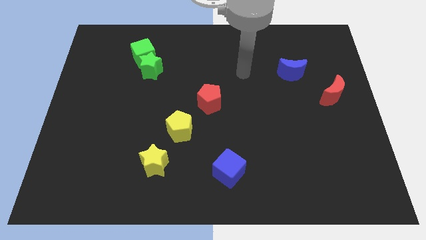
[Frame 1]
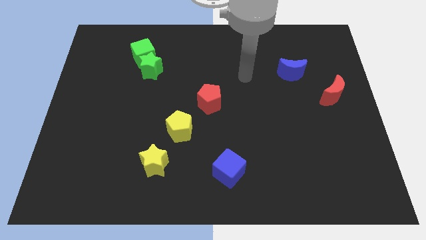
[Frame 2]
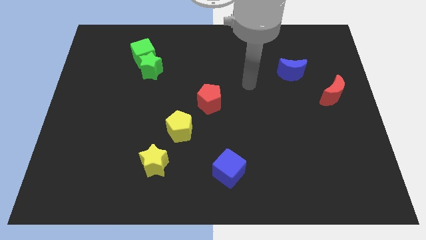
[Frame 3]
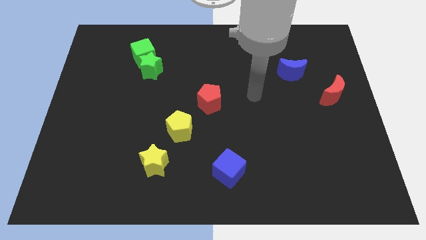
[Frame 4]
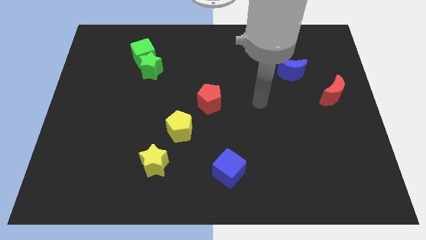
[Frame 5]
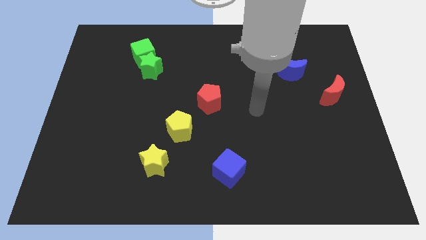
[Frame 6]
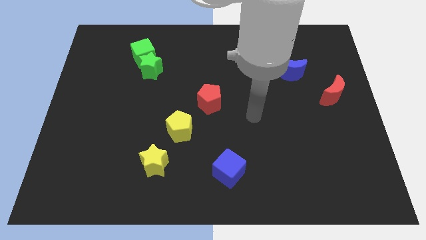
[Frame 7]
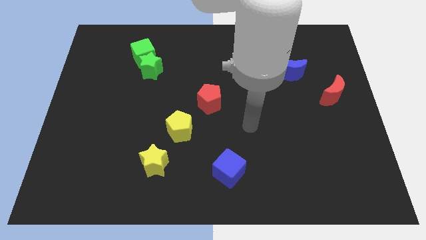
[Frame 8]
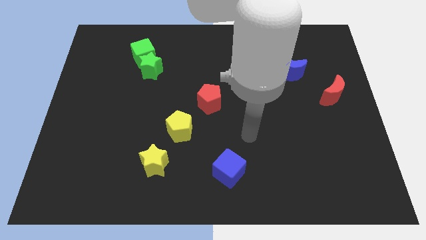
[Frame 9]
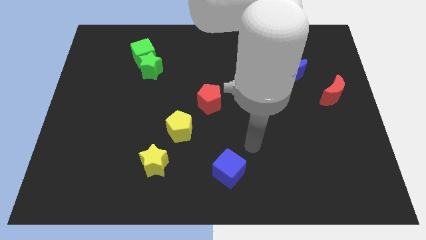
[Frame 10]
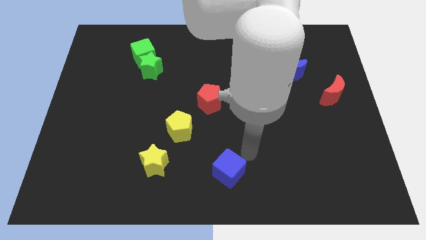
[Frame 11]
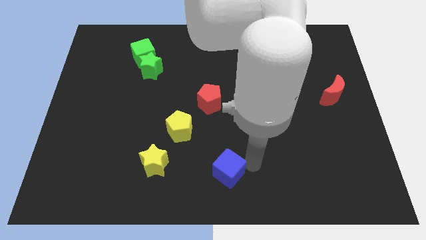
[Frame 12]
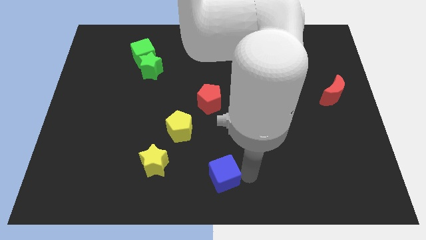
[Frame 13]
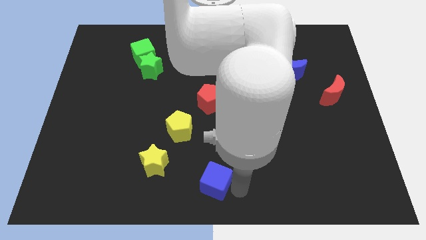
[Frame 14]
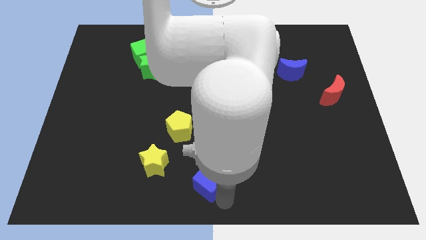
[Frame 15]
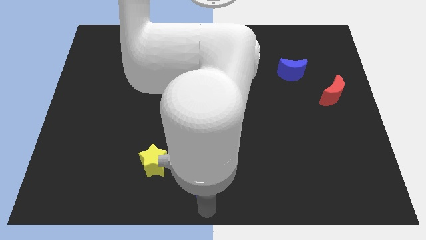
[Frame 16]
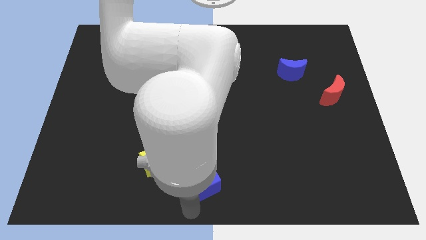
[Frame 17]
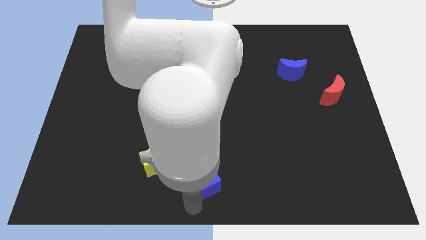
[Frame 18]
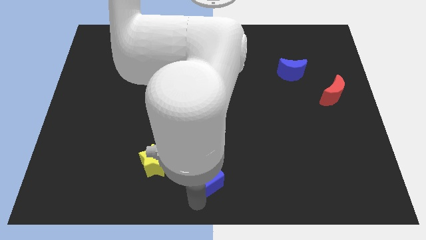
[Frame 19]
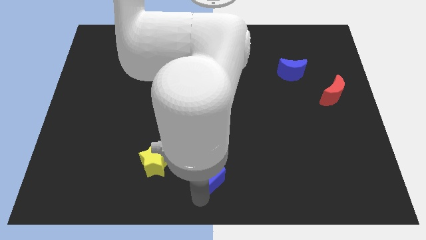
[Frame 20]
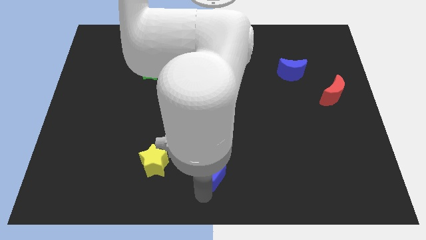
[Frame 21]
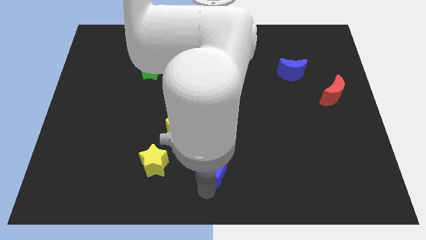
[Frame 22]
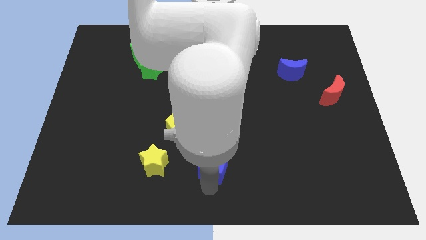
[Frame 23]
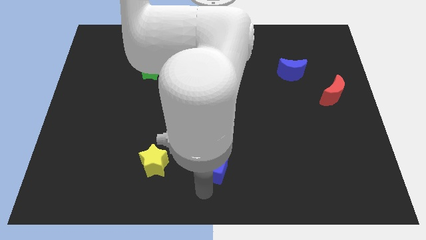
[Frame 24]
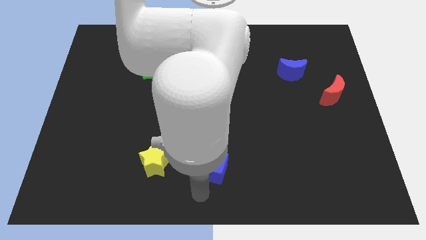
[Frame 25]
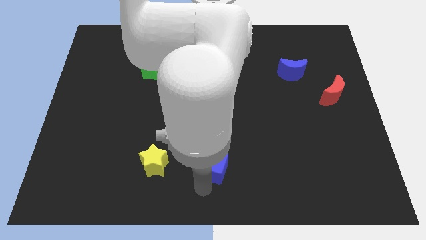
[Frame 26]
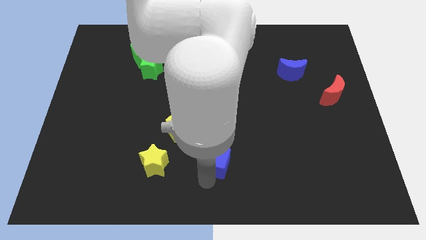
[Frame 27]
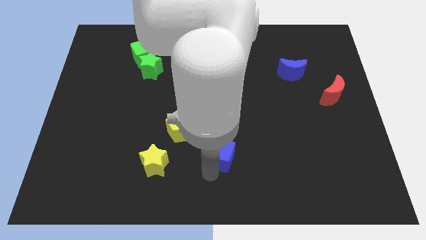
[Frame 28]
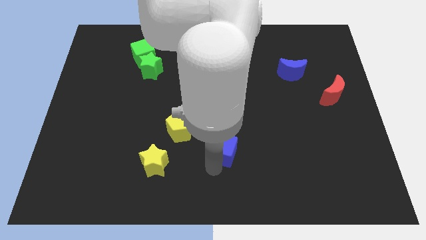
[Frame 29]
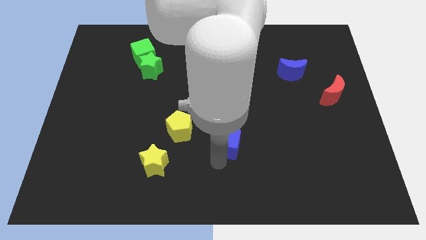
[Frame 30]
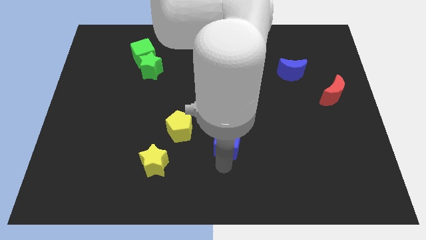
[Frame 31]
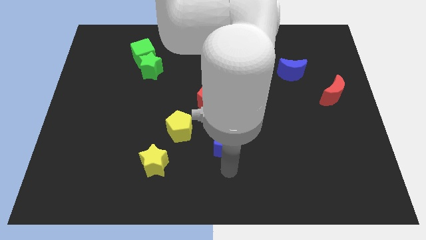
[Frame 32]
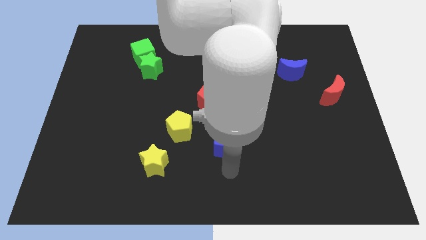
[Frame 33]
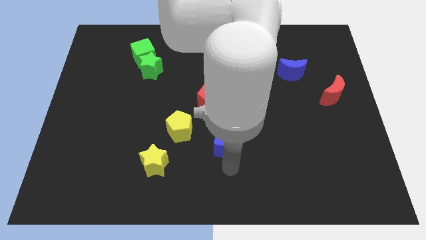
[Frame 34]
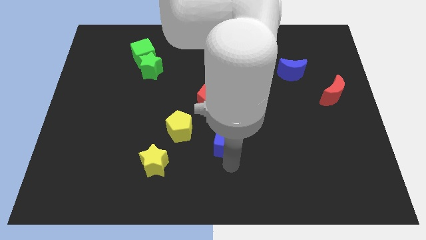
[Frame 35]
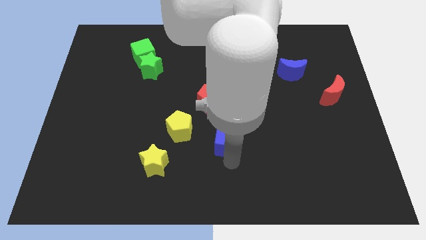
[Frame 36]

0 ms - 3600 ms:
push the blue cube slightly upwards

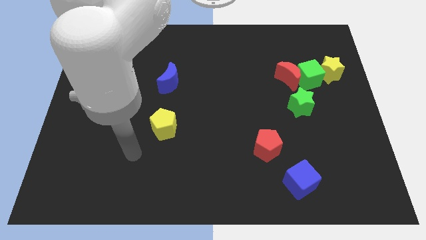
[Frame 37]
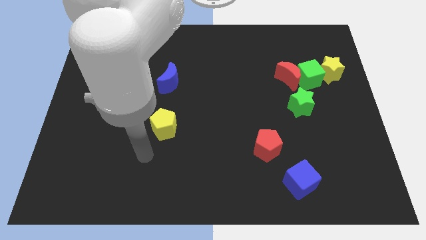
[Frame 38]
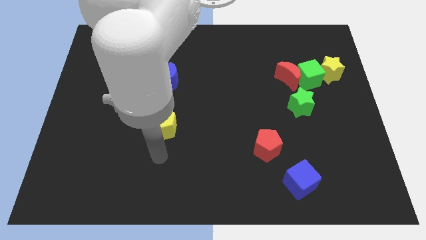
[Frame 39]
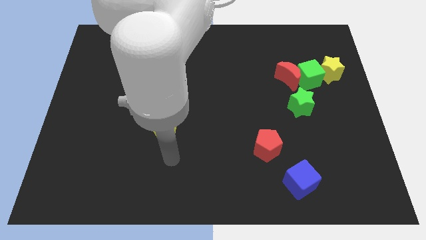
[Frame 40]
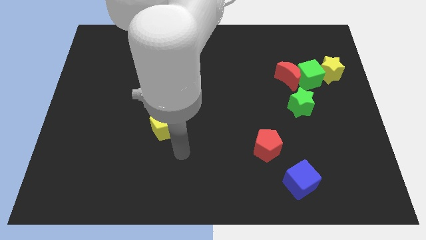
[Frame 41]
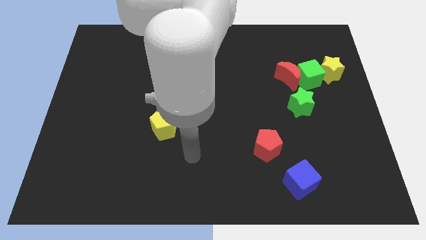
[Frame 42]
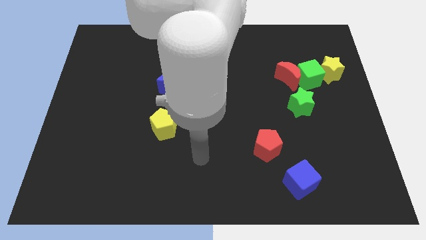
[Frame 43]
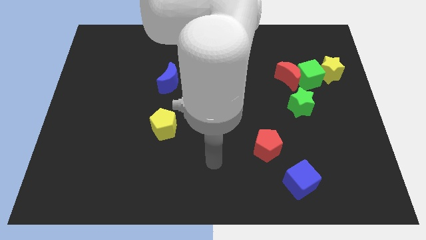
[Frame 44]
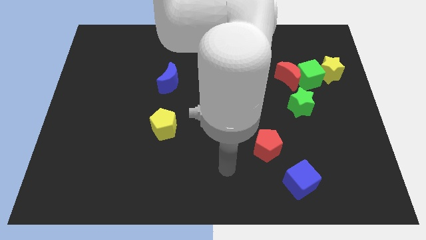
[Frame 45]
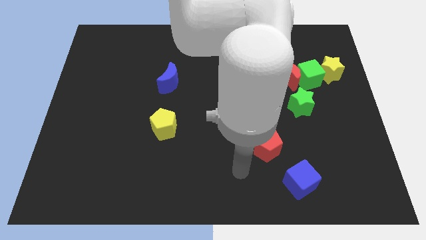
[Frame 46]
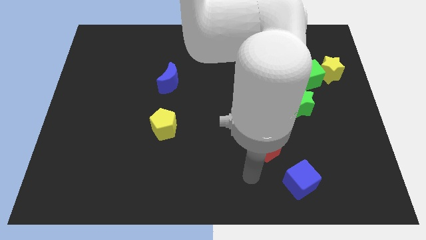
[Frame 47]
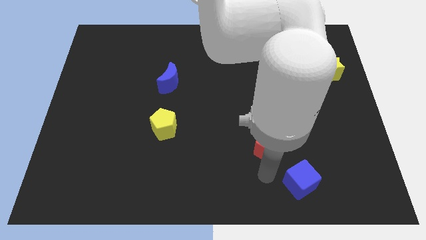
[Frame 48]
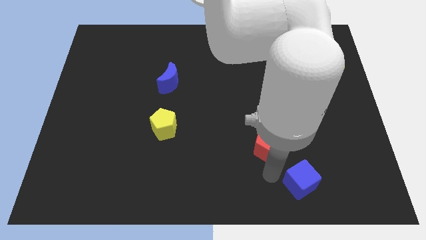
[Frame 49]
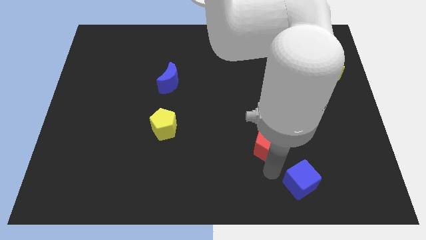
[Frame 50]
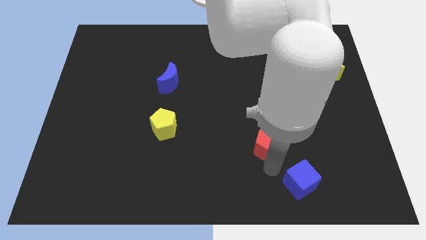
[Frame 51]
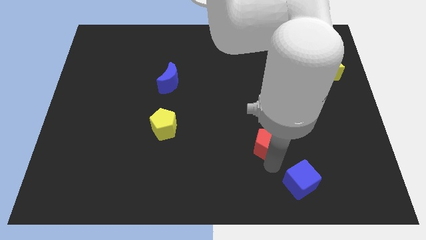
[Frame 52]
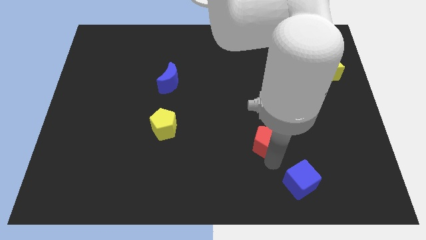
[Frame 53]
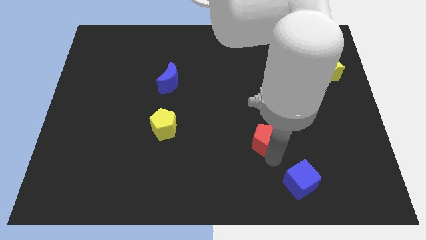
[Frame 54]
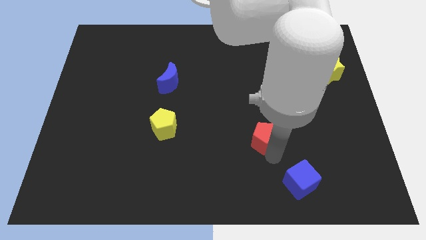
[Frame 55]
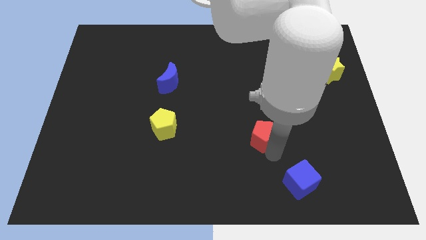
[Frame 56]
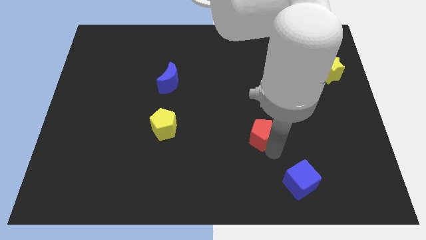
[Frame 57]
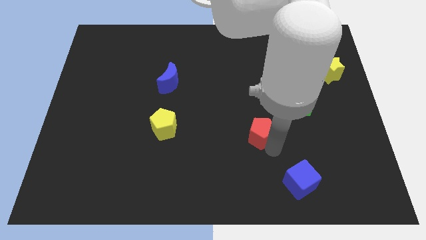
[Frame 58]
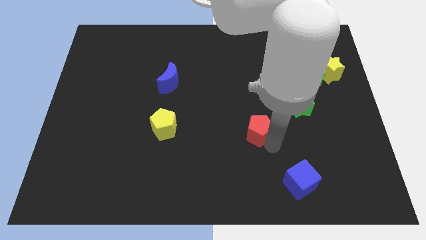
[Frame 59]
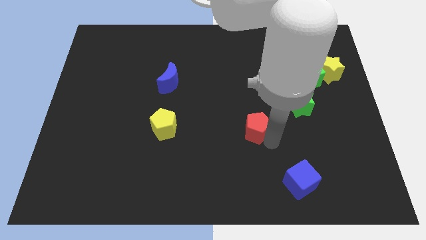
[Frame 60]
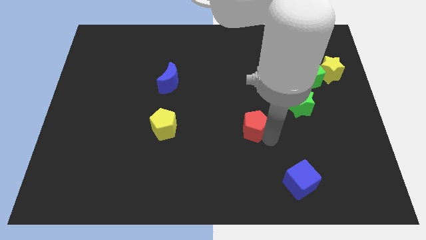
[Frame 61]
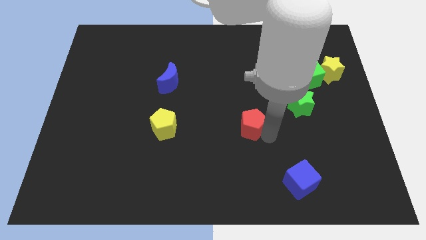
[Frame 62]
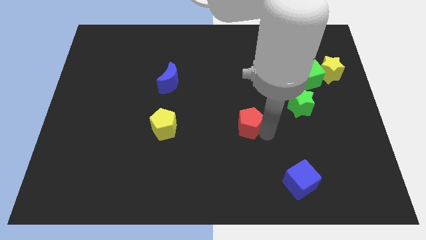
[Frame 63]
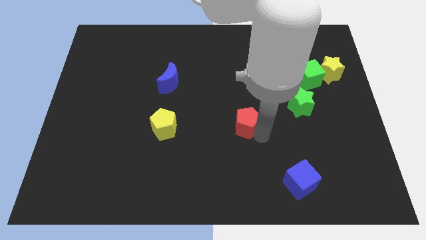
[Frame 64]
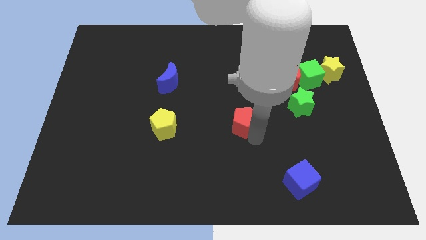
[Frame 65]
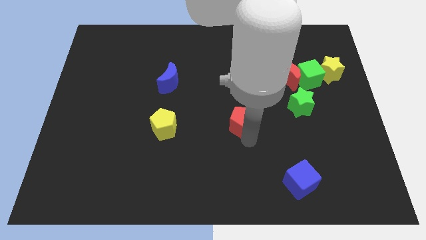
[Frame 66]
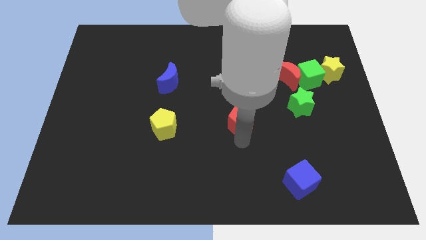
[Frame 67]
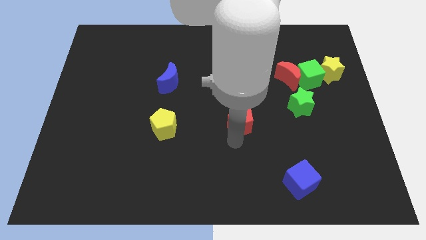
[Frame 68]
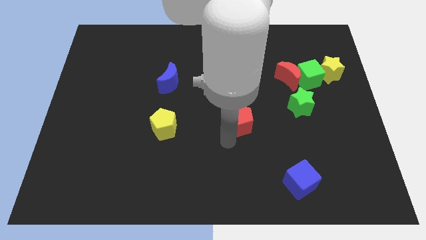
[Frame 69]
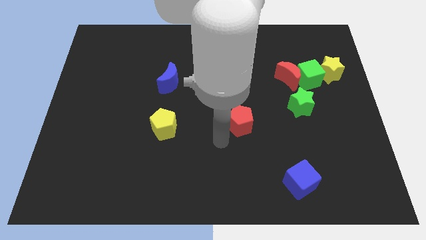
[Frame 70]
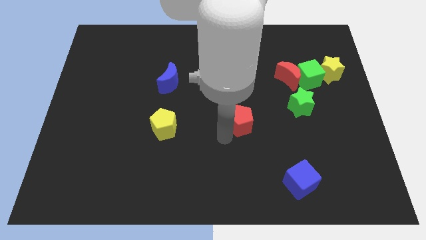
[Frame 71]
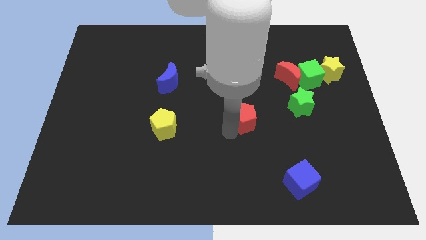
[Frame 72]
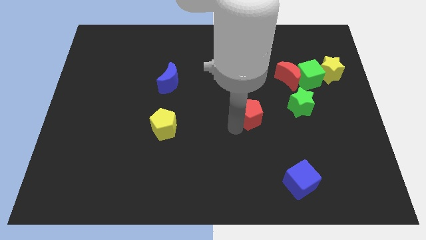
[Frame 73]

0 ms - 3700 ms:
slightly move the red pentagon up

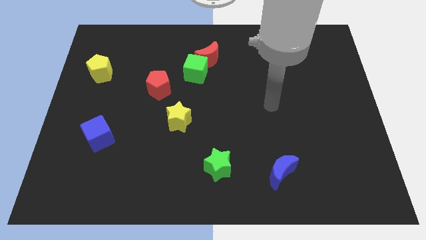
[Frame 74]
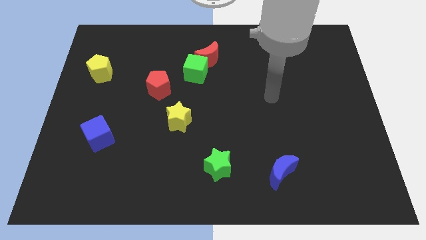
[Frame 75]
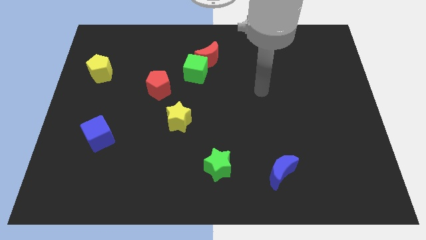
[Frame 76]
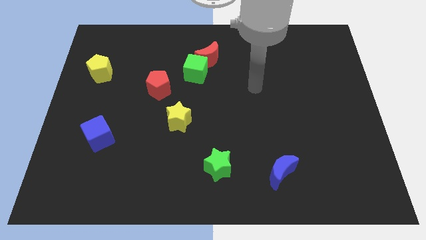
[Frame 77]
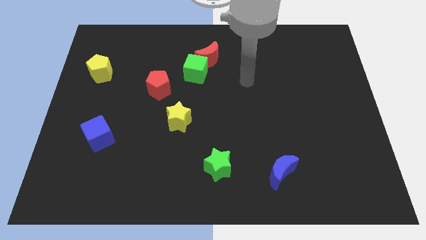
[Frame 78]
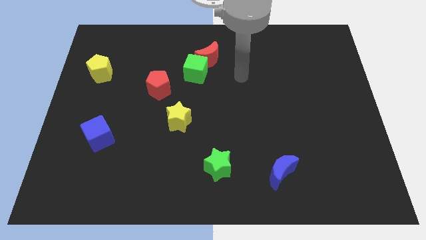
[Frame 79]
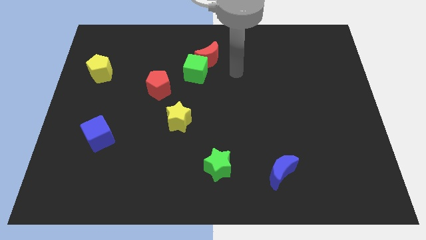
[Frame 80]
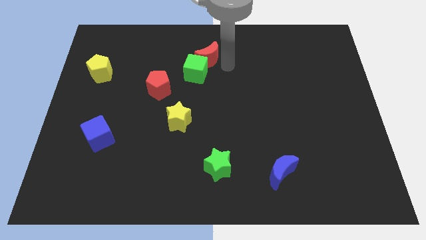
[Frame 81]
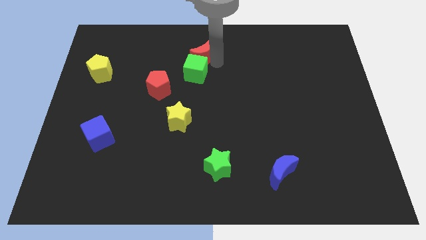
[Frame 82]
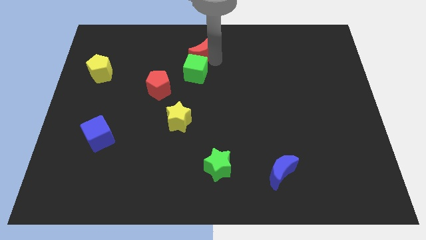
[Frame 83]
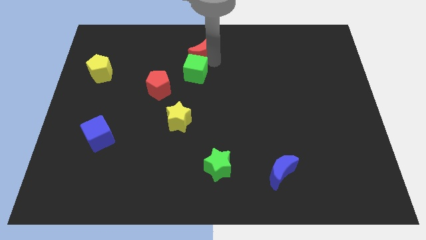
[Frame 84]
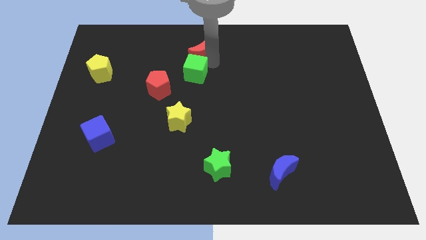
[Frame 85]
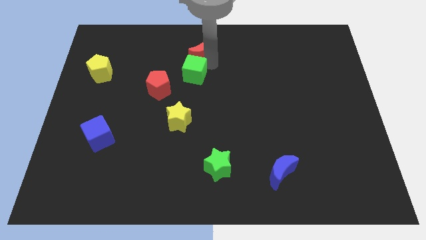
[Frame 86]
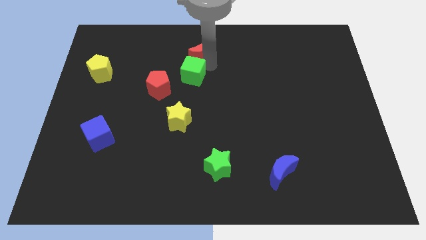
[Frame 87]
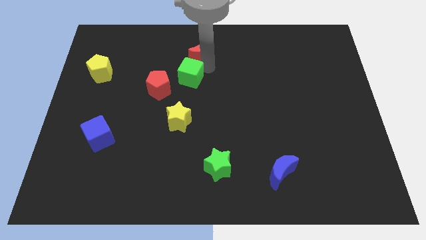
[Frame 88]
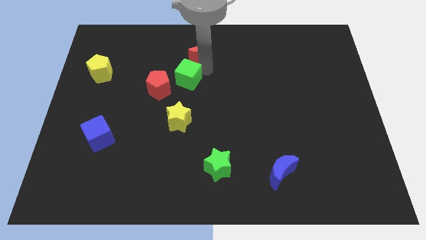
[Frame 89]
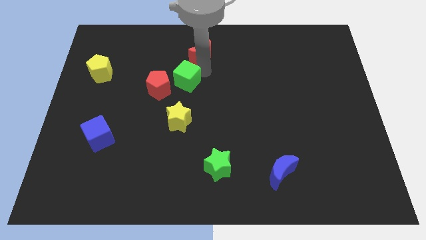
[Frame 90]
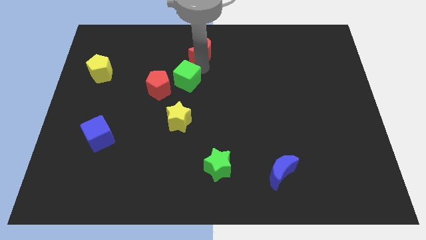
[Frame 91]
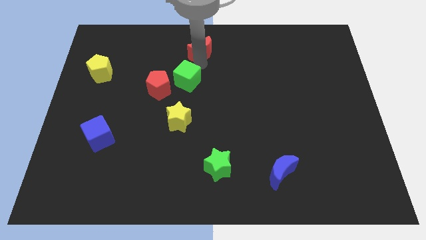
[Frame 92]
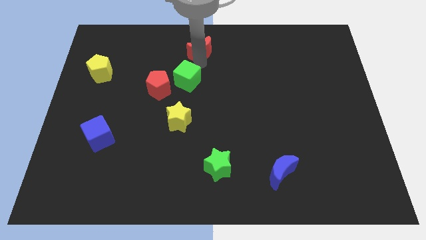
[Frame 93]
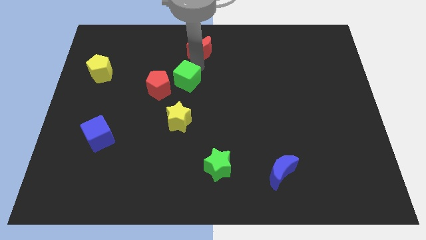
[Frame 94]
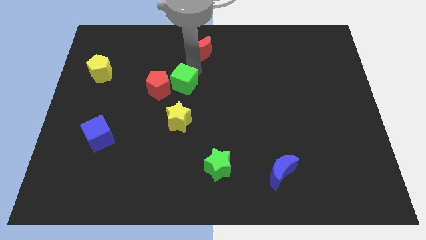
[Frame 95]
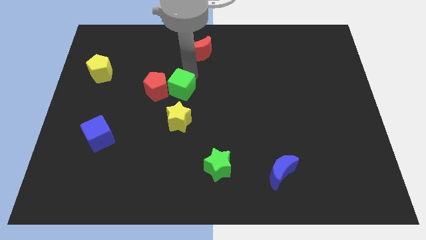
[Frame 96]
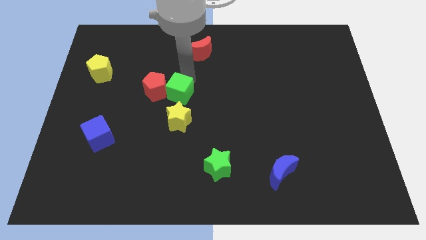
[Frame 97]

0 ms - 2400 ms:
slightly slide the green cube downwards and left
